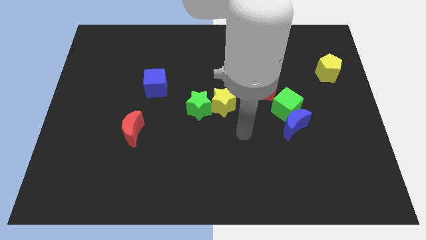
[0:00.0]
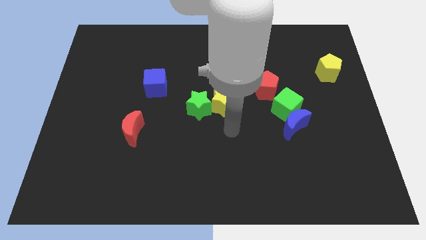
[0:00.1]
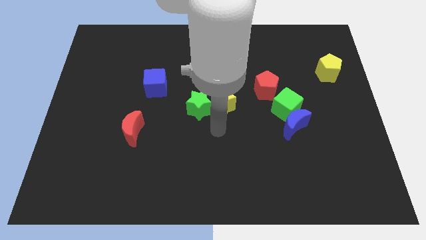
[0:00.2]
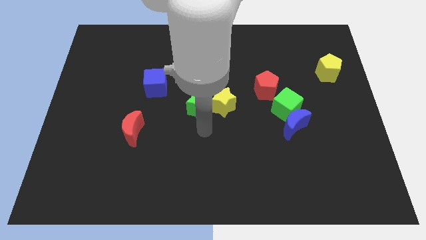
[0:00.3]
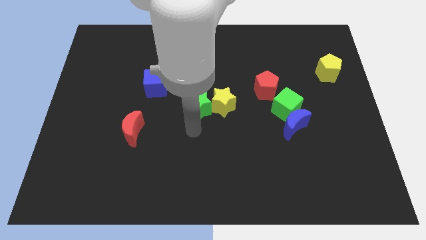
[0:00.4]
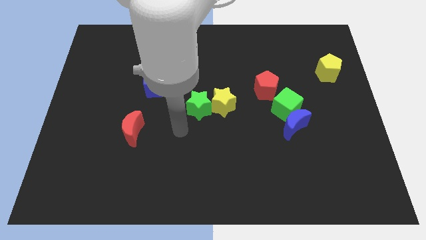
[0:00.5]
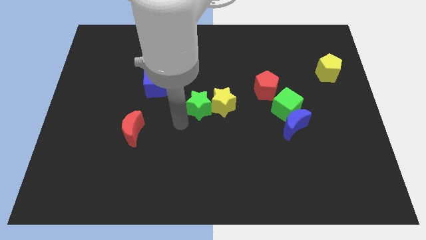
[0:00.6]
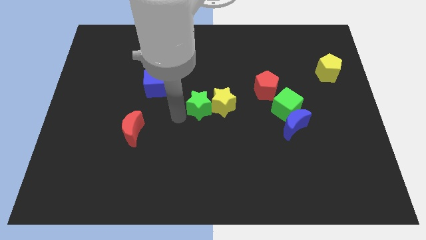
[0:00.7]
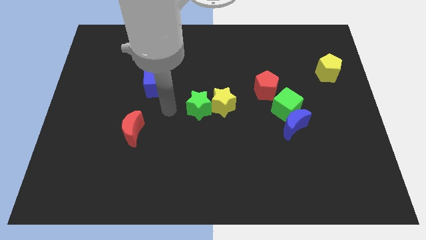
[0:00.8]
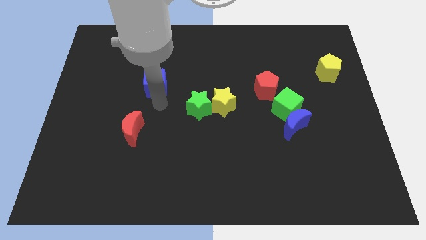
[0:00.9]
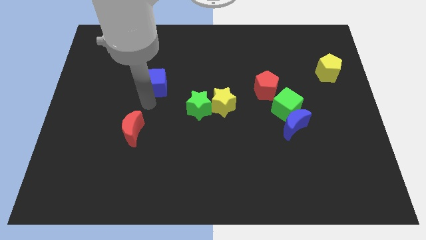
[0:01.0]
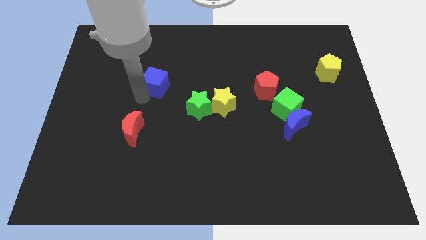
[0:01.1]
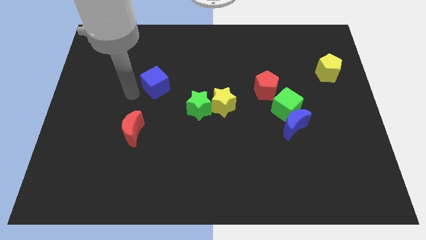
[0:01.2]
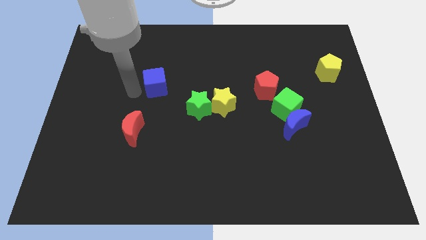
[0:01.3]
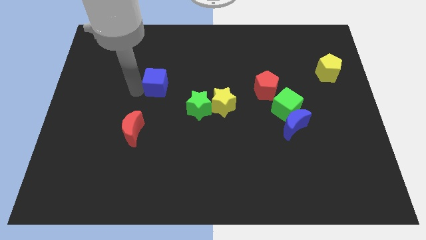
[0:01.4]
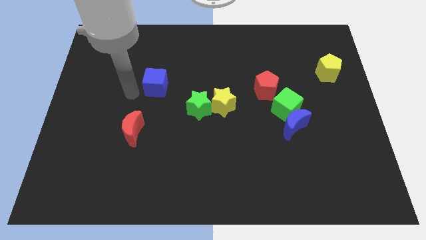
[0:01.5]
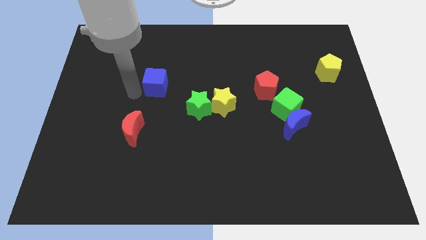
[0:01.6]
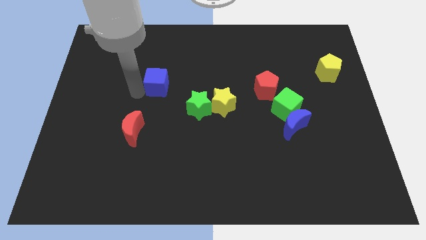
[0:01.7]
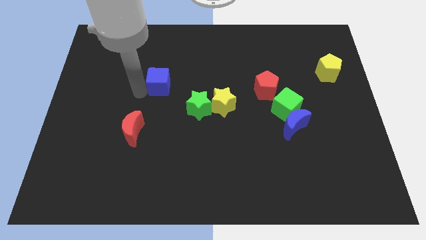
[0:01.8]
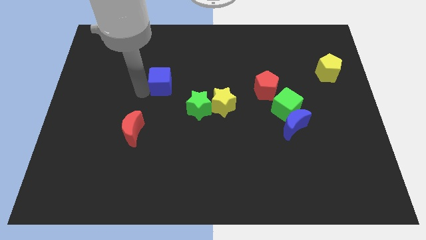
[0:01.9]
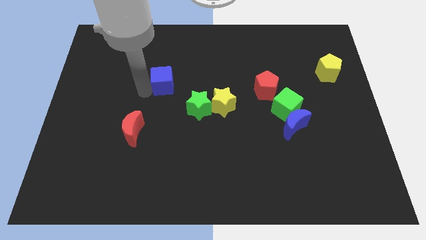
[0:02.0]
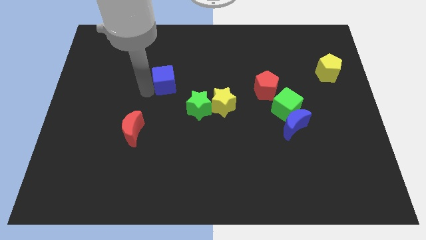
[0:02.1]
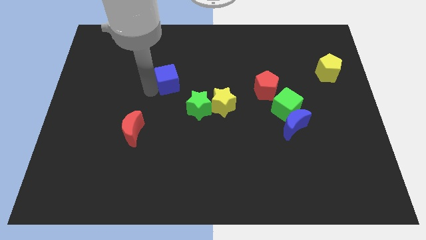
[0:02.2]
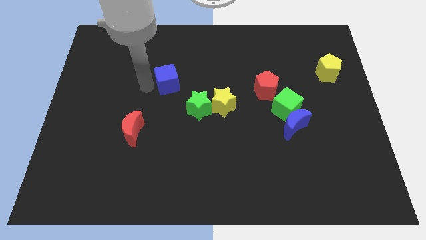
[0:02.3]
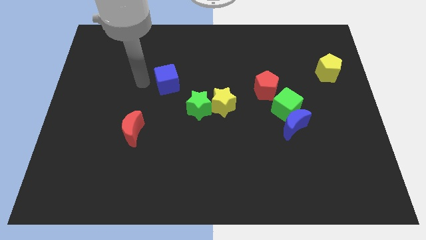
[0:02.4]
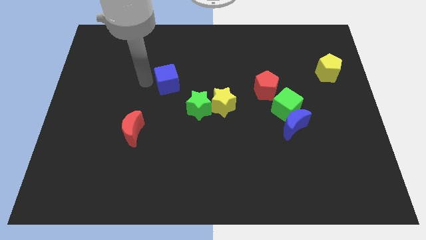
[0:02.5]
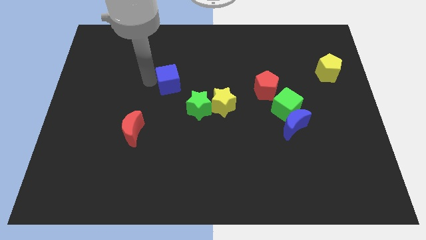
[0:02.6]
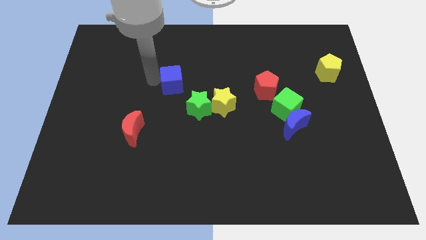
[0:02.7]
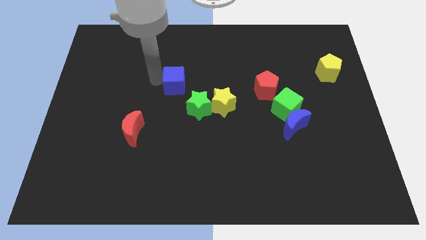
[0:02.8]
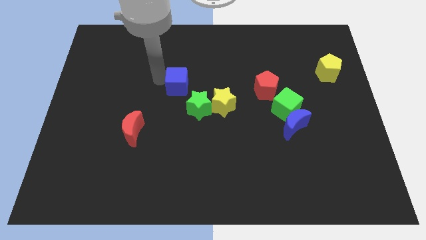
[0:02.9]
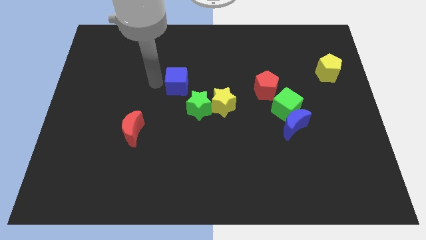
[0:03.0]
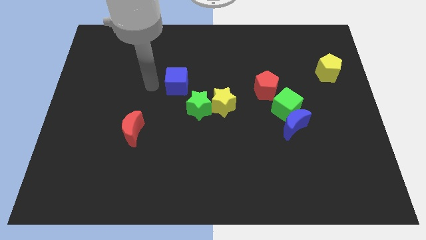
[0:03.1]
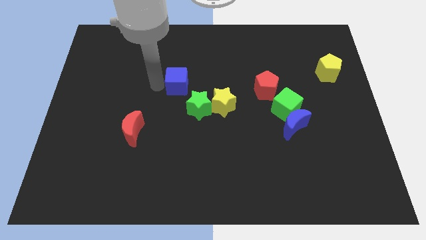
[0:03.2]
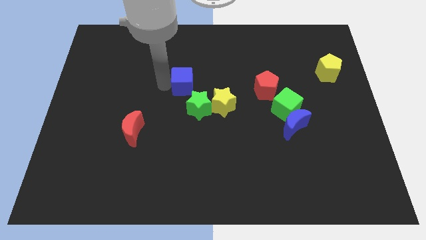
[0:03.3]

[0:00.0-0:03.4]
slide the blue cube to the right a little bit

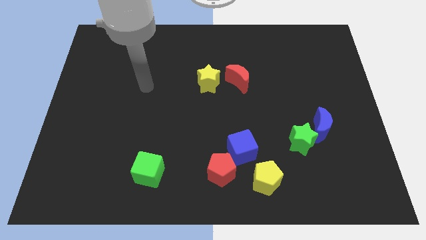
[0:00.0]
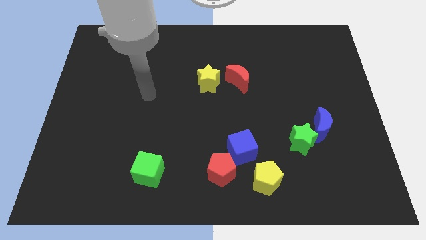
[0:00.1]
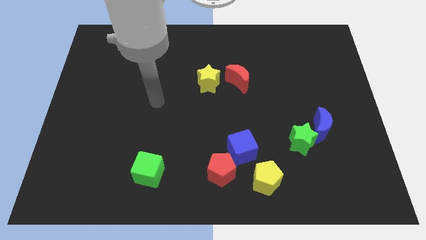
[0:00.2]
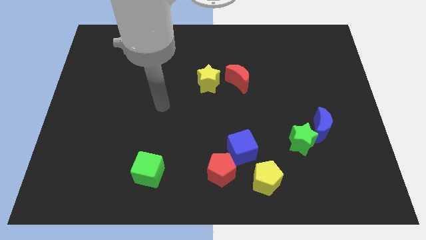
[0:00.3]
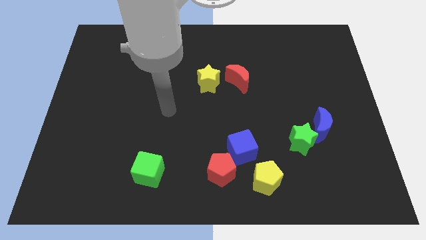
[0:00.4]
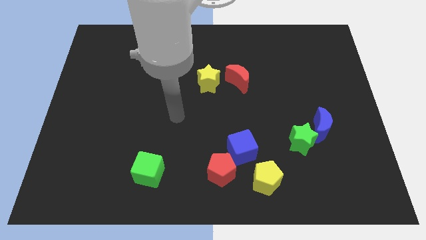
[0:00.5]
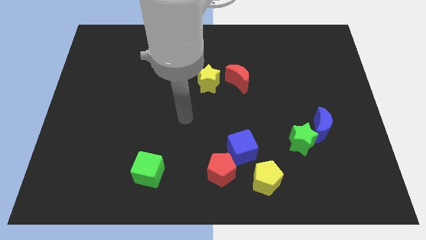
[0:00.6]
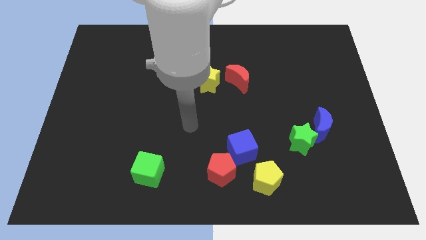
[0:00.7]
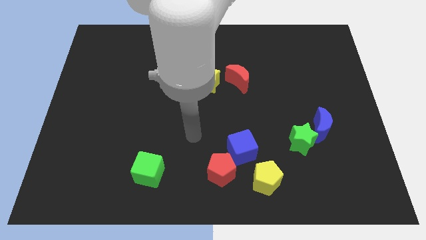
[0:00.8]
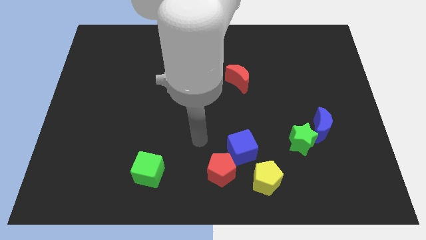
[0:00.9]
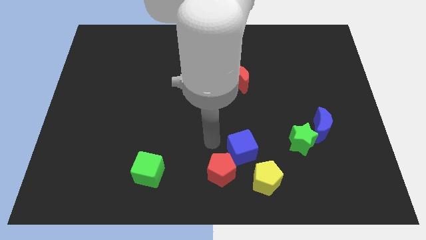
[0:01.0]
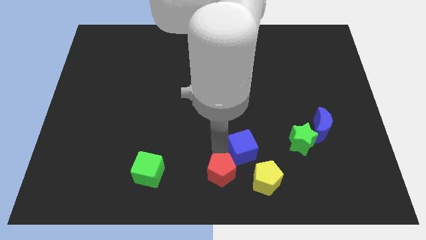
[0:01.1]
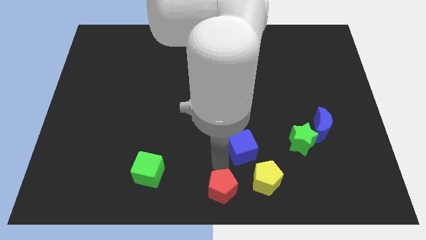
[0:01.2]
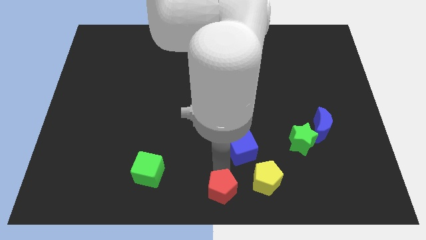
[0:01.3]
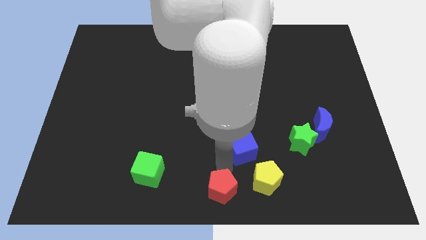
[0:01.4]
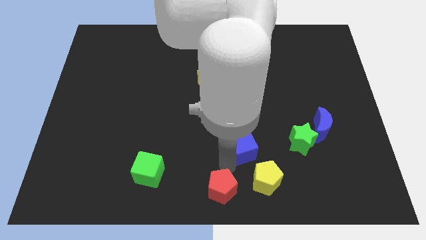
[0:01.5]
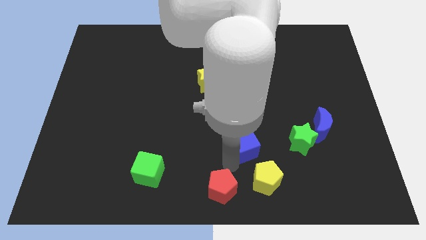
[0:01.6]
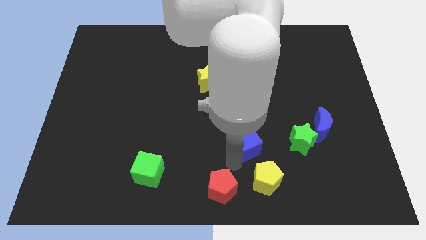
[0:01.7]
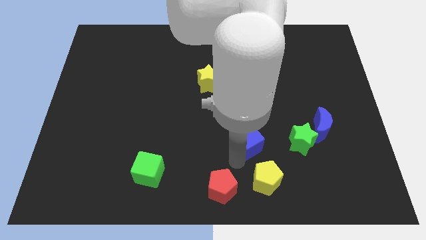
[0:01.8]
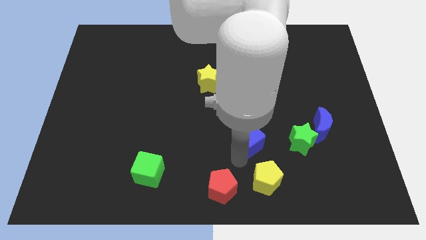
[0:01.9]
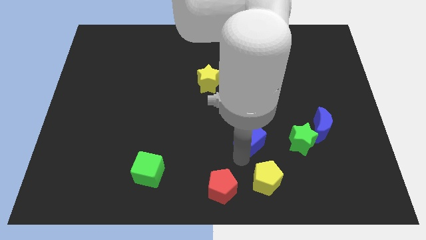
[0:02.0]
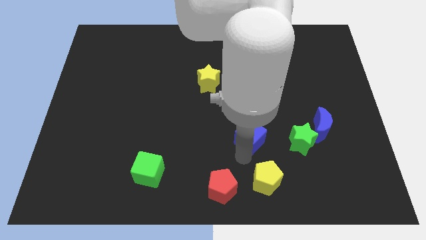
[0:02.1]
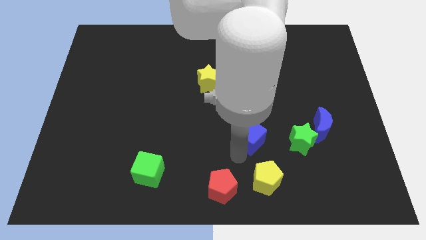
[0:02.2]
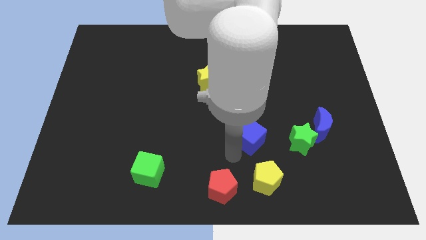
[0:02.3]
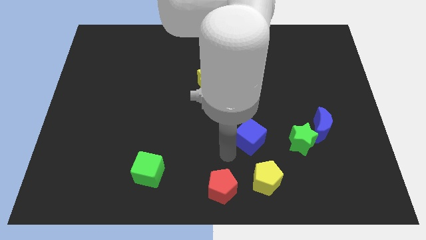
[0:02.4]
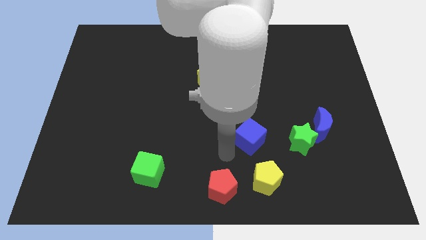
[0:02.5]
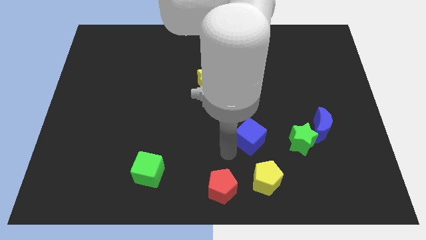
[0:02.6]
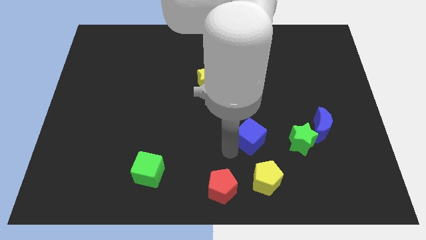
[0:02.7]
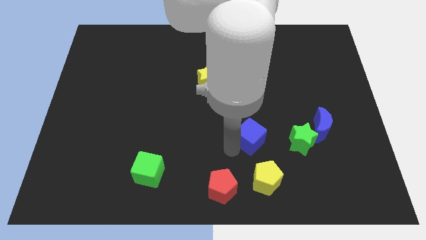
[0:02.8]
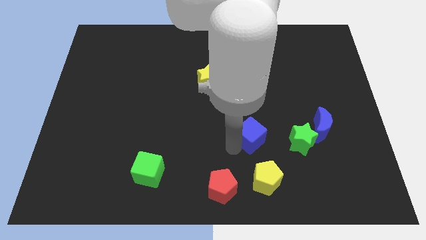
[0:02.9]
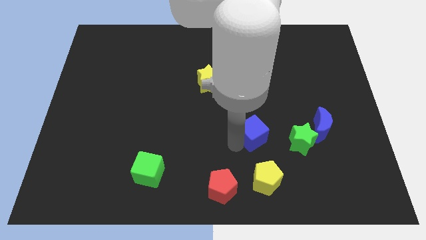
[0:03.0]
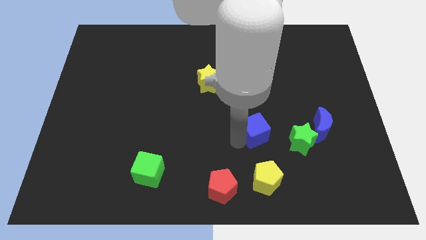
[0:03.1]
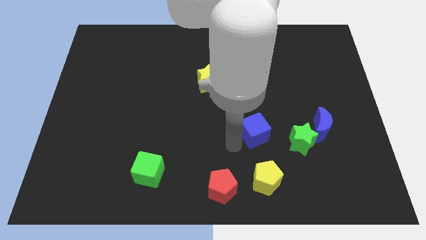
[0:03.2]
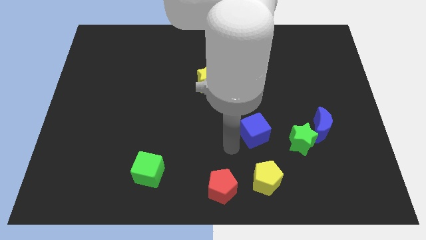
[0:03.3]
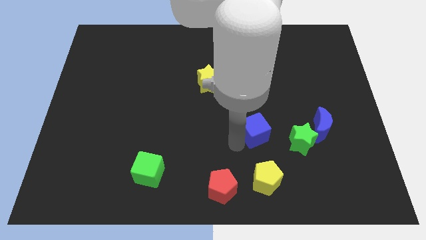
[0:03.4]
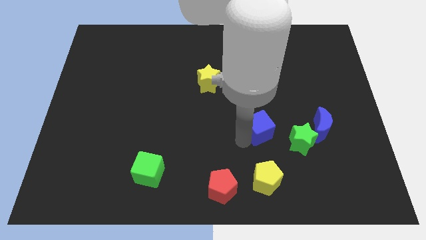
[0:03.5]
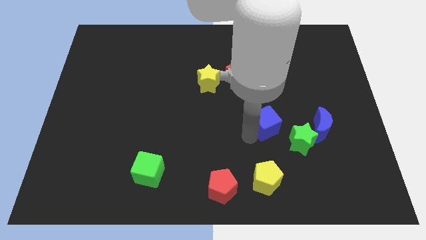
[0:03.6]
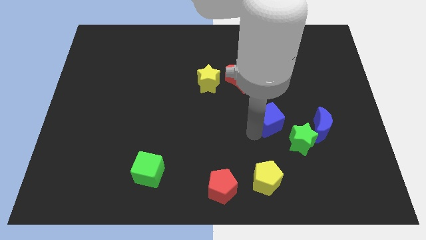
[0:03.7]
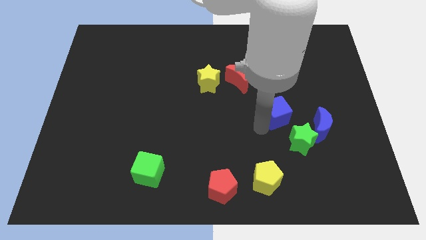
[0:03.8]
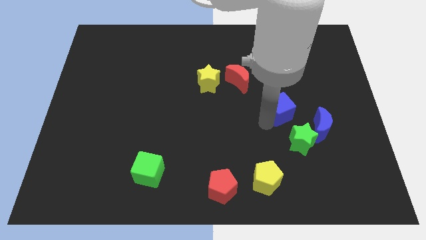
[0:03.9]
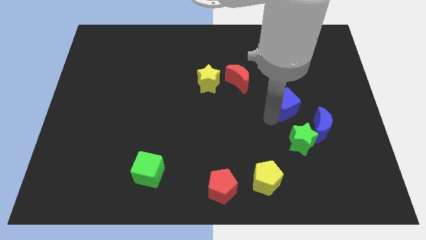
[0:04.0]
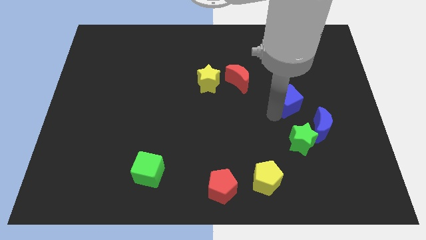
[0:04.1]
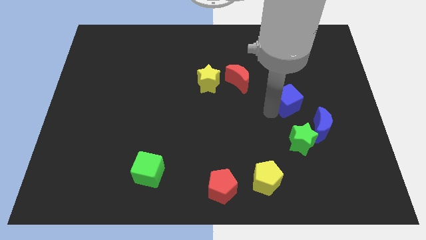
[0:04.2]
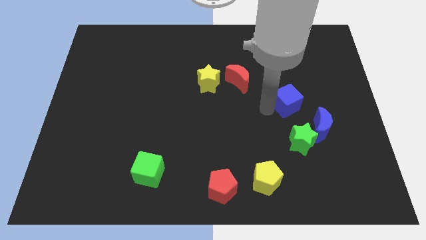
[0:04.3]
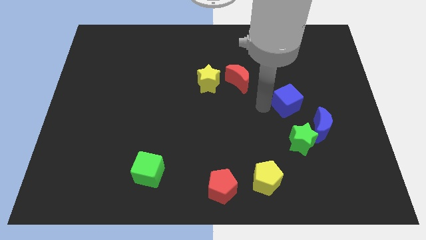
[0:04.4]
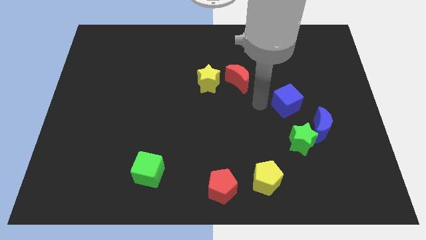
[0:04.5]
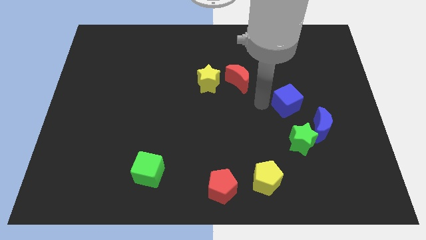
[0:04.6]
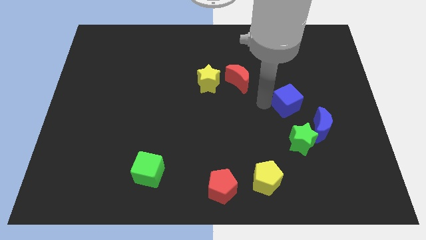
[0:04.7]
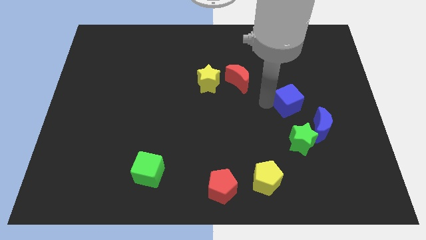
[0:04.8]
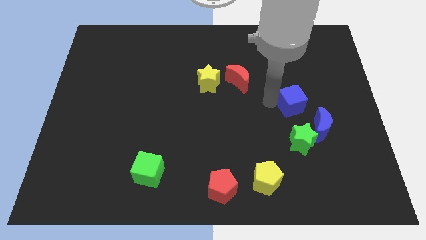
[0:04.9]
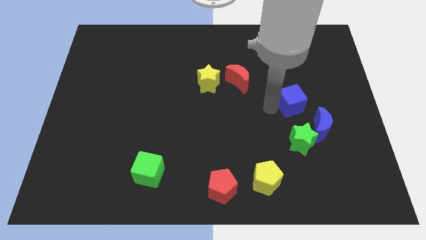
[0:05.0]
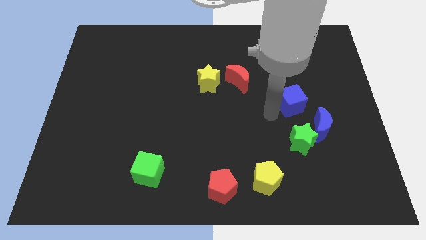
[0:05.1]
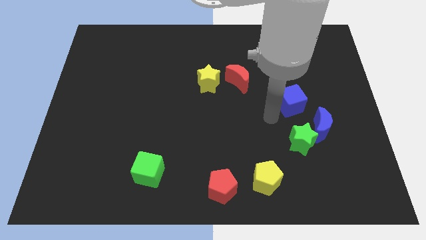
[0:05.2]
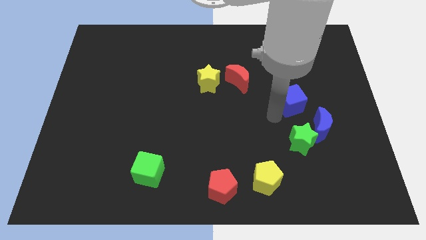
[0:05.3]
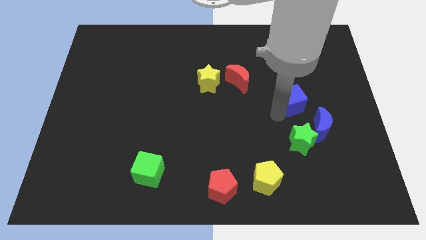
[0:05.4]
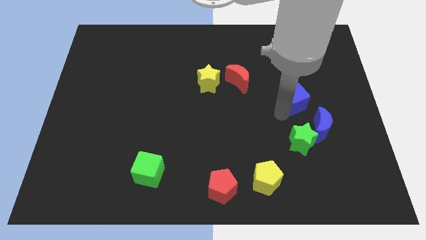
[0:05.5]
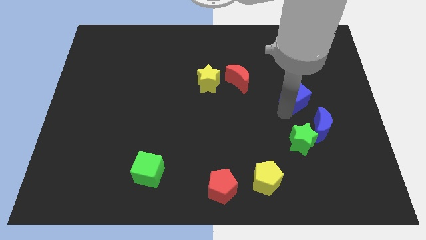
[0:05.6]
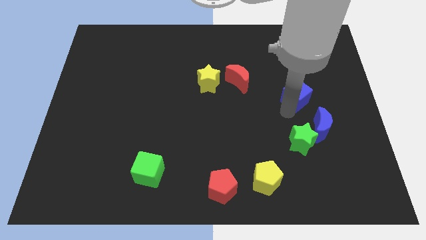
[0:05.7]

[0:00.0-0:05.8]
slide the blue cube upwards and then to the right
